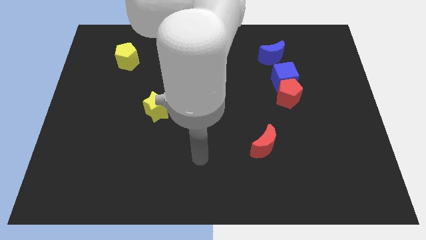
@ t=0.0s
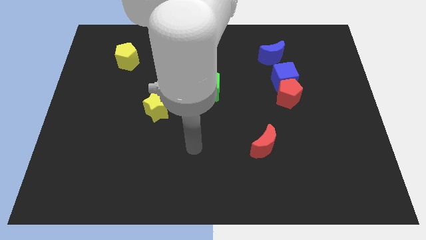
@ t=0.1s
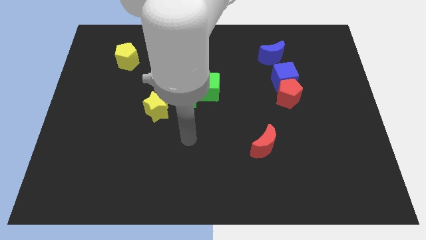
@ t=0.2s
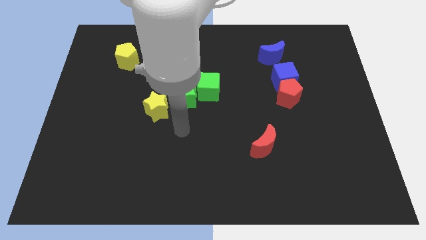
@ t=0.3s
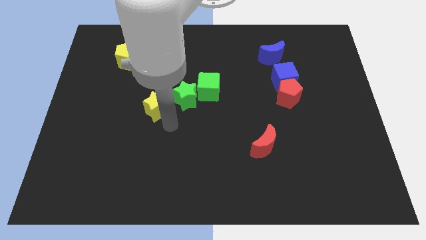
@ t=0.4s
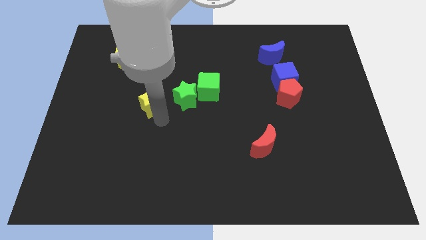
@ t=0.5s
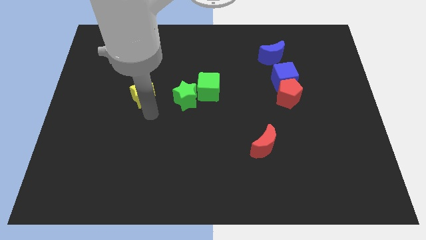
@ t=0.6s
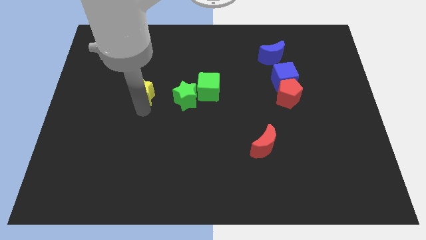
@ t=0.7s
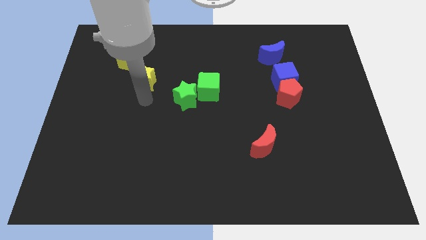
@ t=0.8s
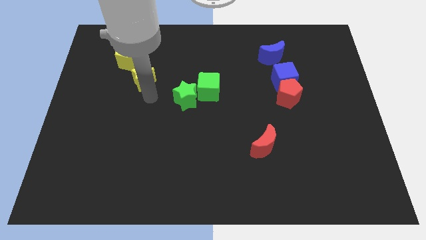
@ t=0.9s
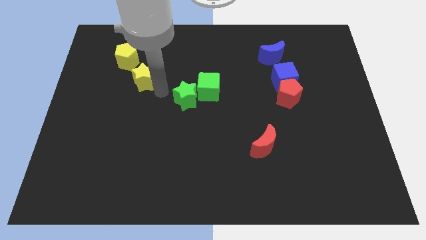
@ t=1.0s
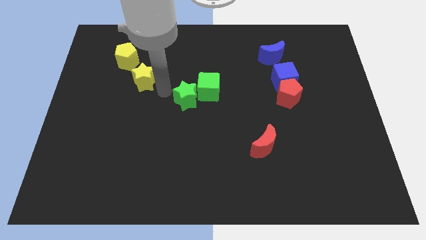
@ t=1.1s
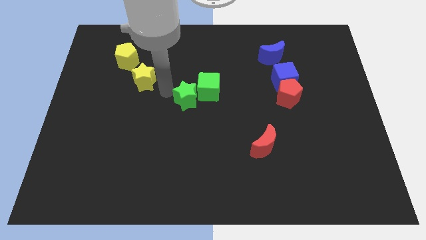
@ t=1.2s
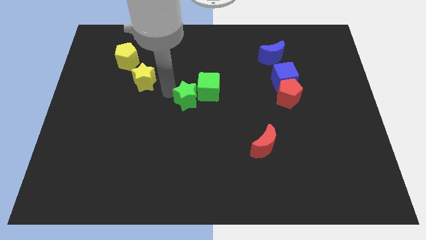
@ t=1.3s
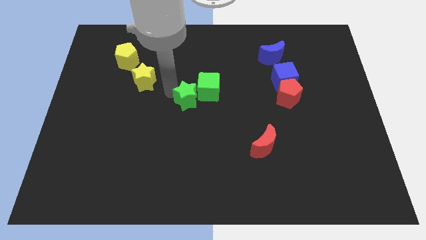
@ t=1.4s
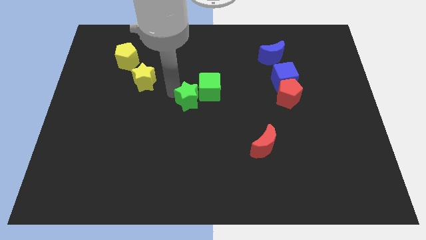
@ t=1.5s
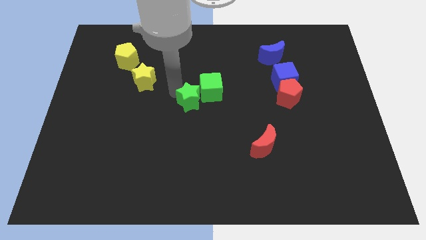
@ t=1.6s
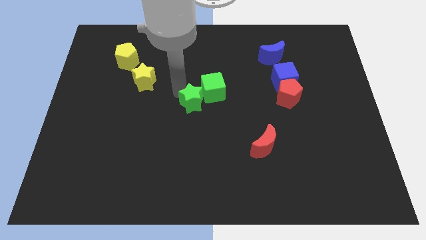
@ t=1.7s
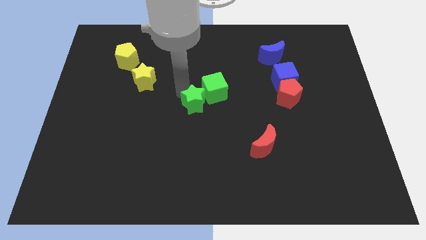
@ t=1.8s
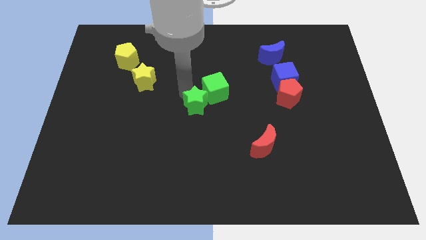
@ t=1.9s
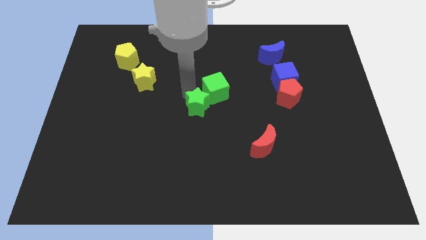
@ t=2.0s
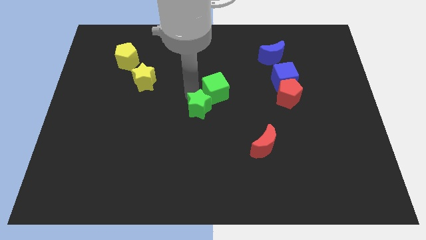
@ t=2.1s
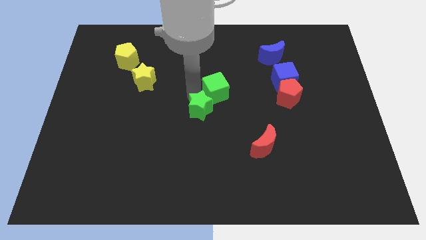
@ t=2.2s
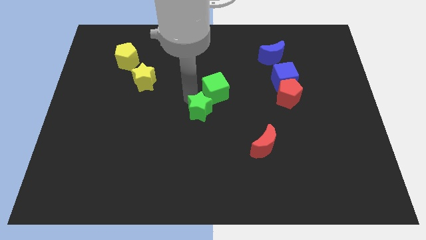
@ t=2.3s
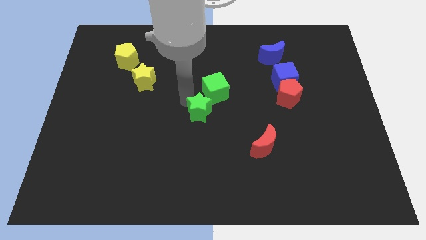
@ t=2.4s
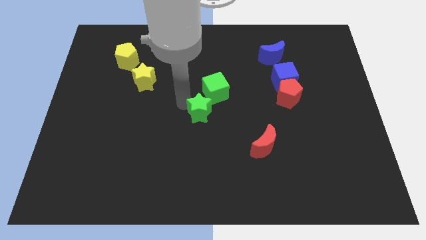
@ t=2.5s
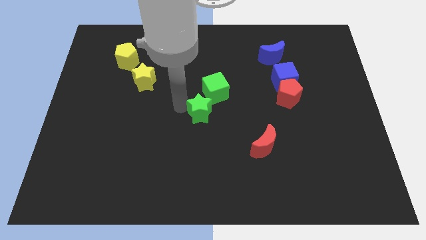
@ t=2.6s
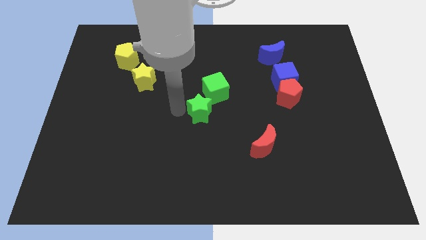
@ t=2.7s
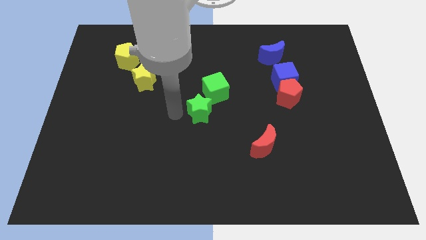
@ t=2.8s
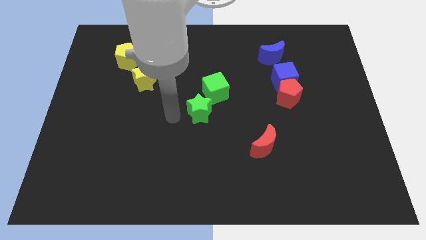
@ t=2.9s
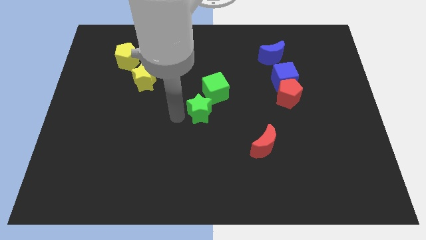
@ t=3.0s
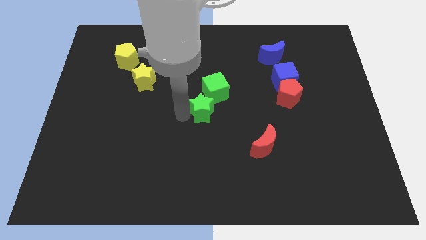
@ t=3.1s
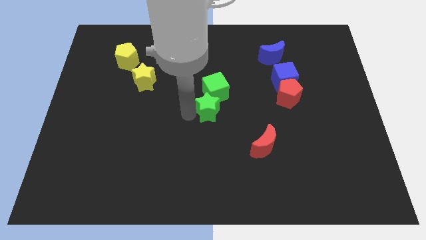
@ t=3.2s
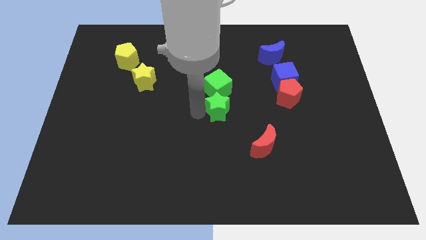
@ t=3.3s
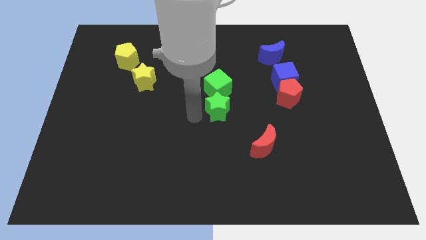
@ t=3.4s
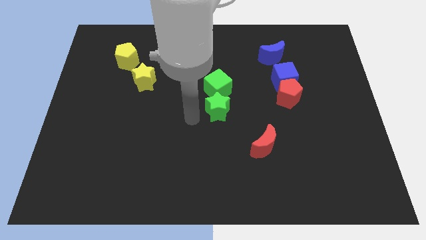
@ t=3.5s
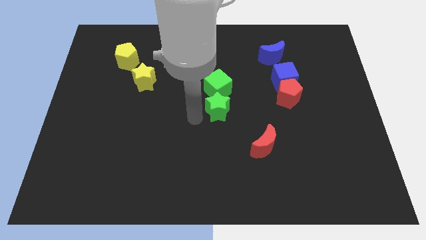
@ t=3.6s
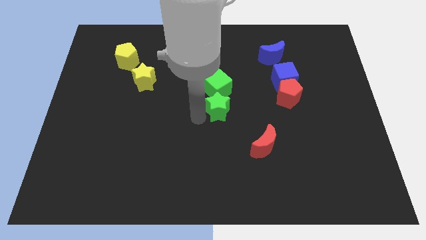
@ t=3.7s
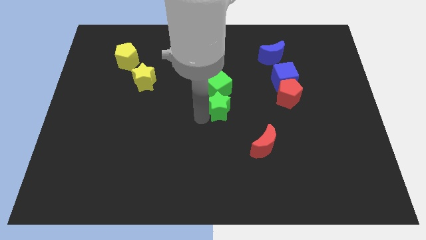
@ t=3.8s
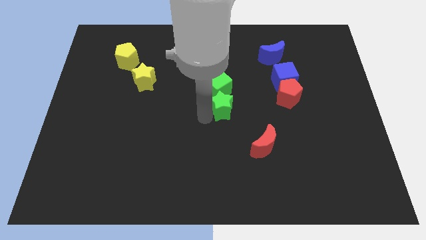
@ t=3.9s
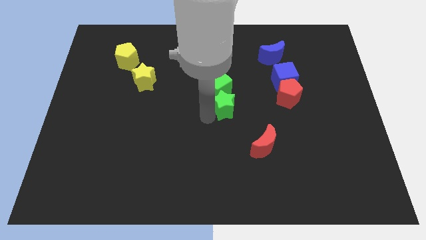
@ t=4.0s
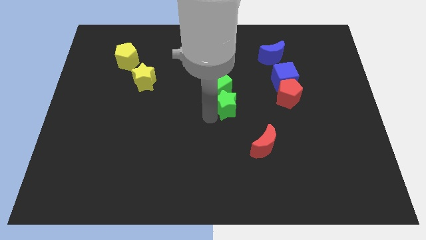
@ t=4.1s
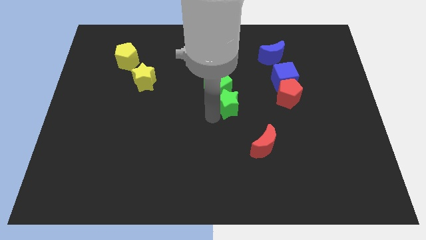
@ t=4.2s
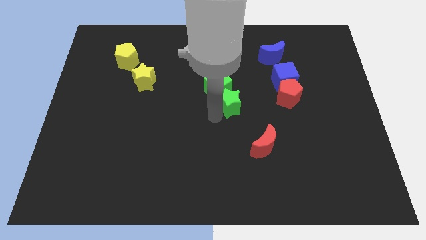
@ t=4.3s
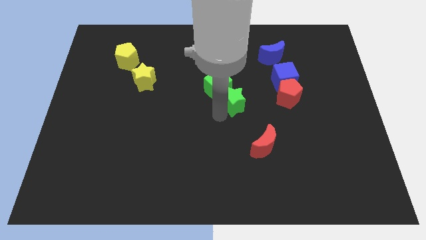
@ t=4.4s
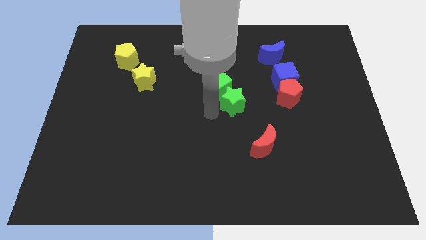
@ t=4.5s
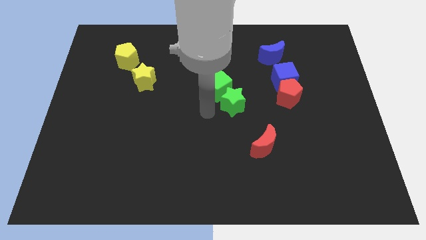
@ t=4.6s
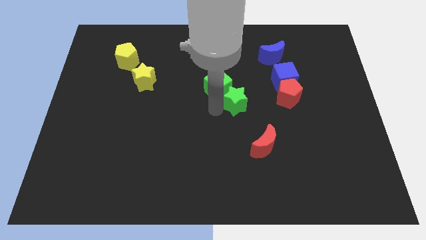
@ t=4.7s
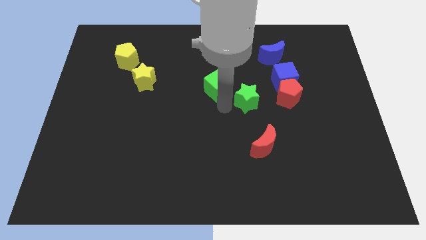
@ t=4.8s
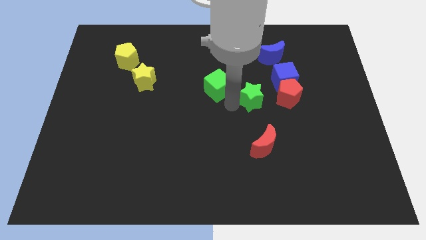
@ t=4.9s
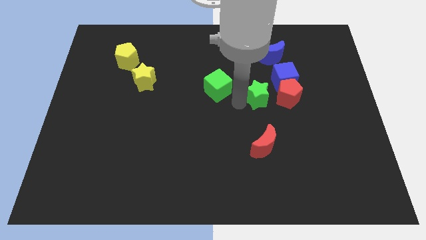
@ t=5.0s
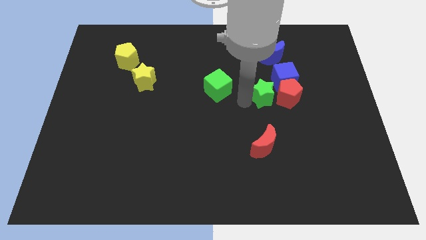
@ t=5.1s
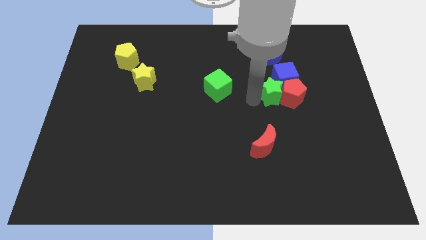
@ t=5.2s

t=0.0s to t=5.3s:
slide the green star to the blue cube

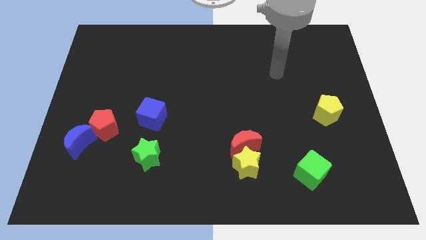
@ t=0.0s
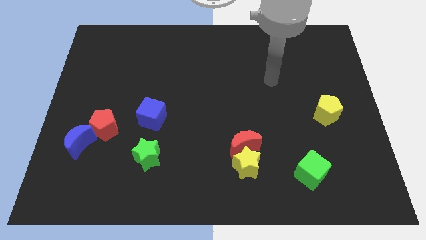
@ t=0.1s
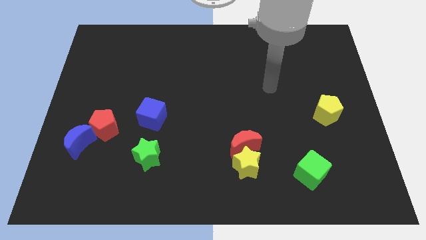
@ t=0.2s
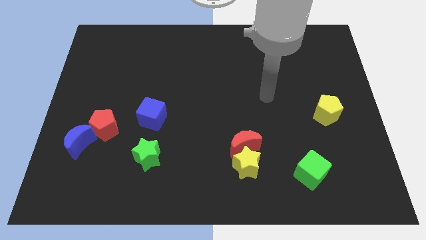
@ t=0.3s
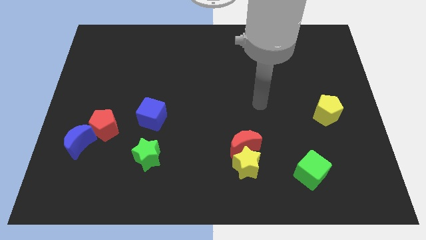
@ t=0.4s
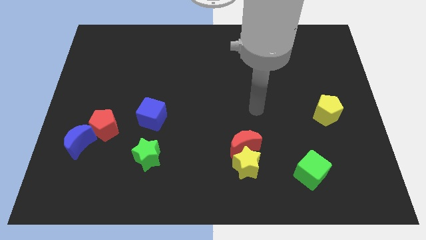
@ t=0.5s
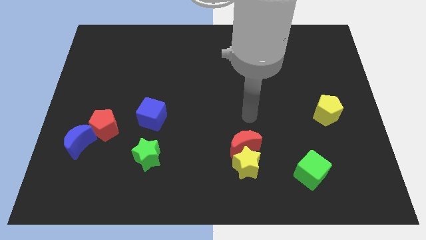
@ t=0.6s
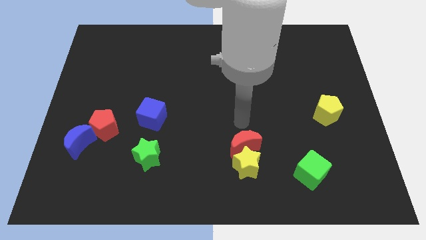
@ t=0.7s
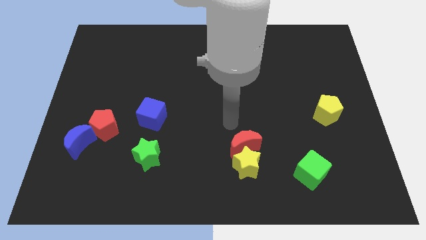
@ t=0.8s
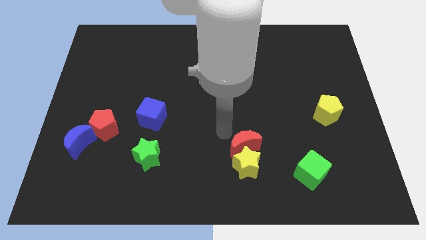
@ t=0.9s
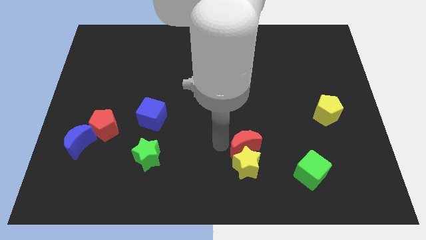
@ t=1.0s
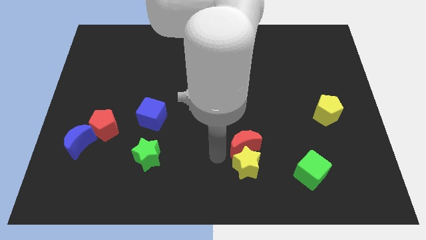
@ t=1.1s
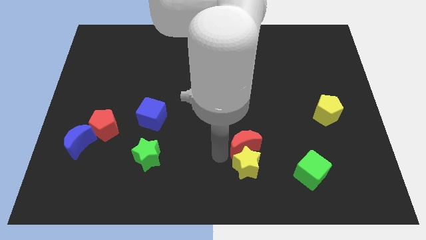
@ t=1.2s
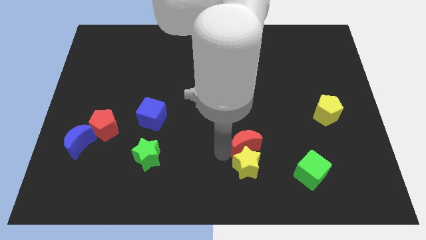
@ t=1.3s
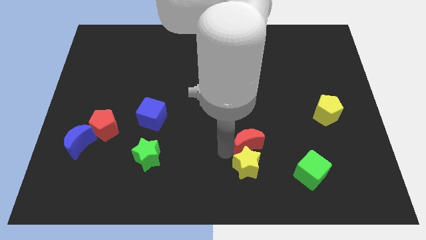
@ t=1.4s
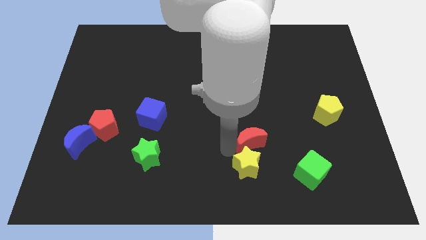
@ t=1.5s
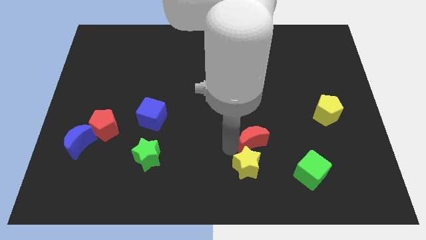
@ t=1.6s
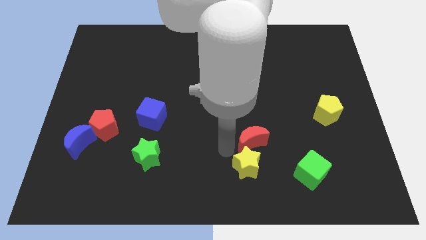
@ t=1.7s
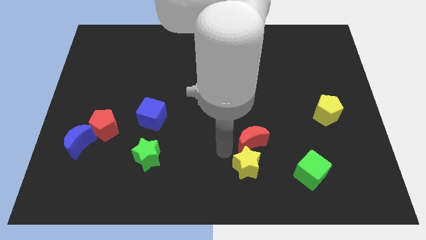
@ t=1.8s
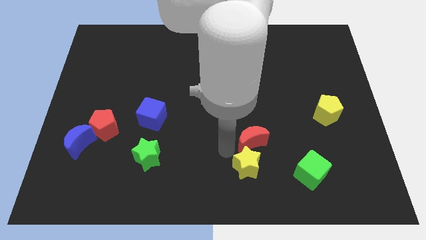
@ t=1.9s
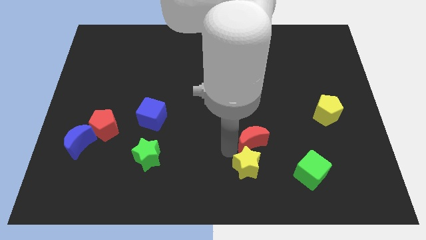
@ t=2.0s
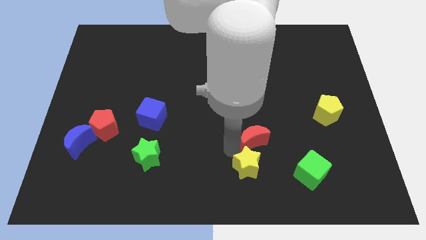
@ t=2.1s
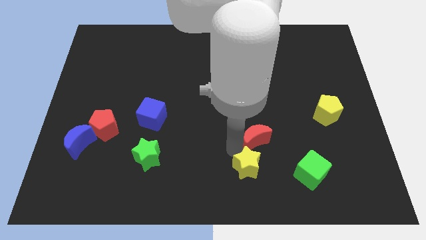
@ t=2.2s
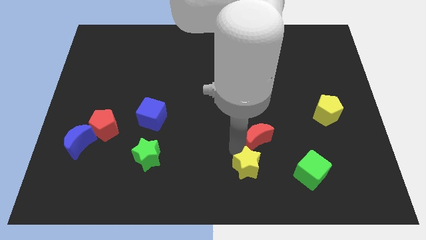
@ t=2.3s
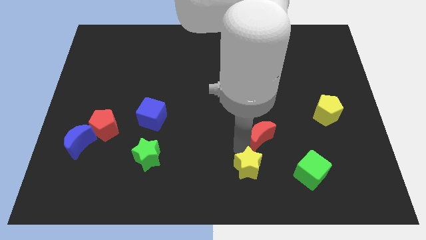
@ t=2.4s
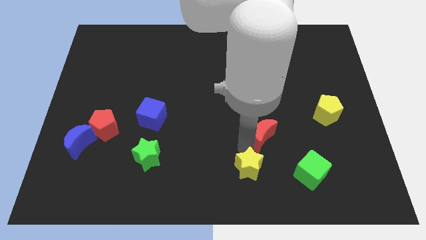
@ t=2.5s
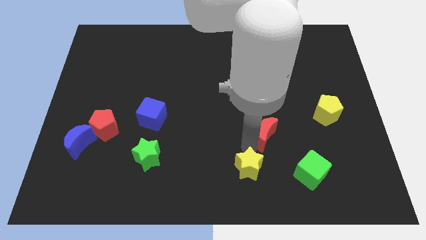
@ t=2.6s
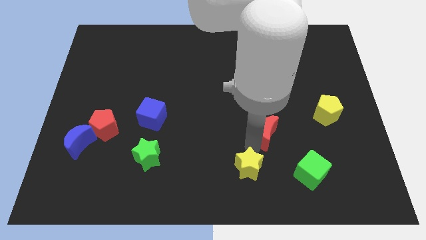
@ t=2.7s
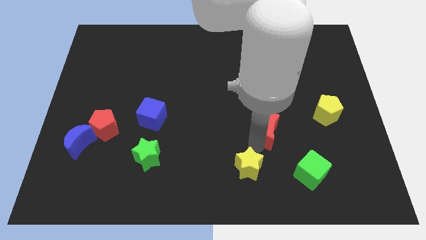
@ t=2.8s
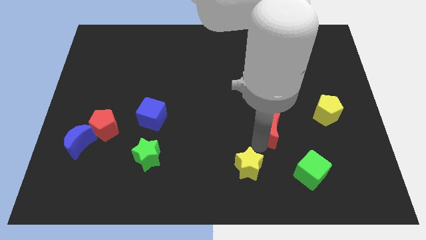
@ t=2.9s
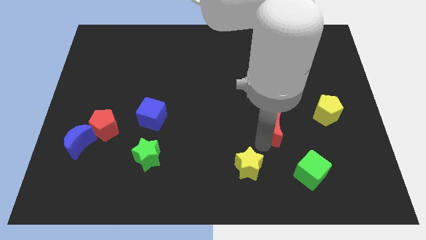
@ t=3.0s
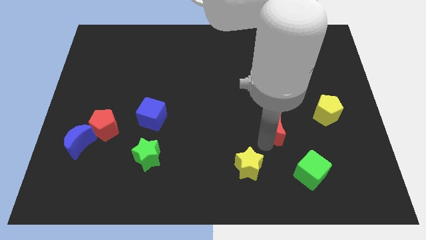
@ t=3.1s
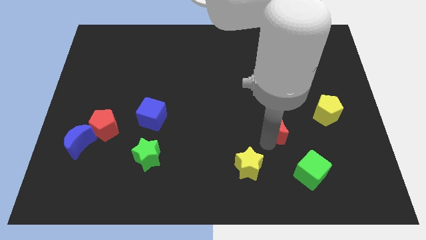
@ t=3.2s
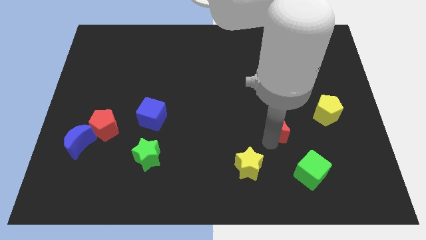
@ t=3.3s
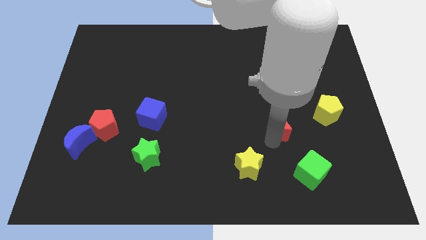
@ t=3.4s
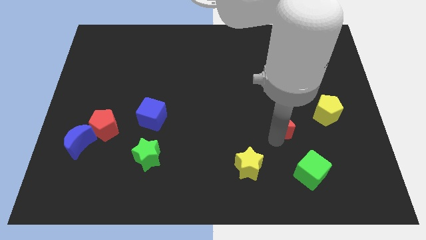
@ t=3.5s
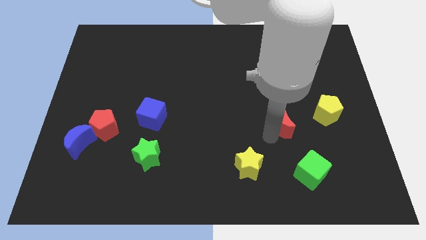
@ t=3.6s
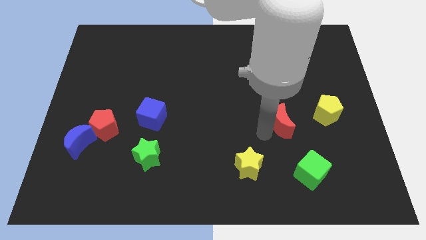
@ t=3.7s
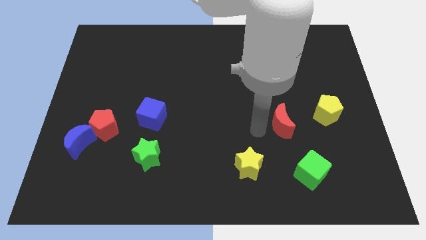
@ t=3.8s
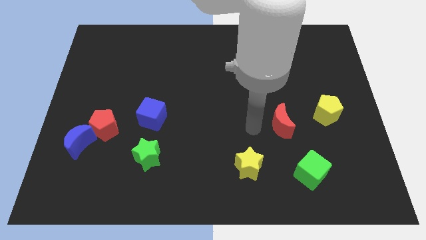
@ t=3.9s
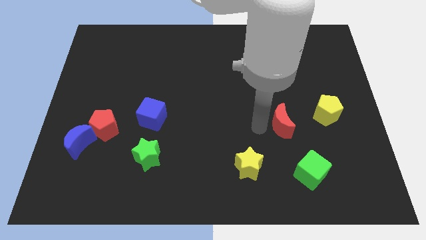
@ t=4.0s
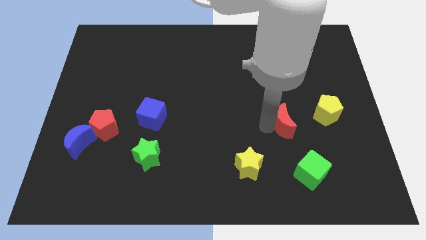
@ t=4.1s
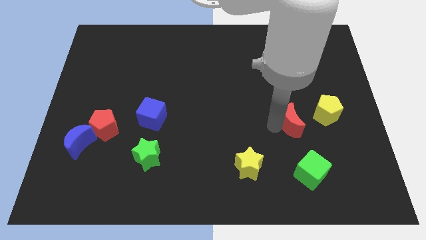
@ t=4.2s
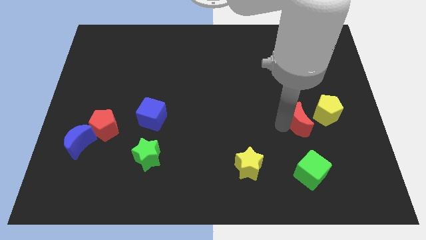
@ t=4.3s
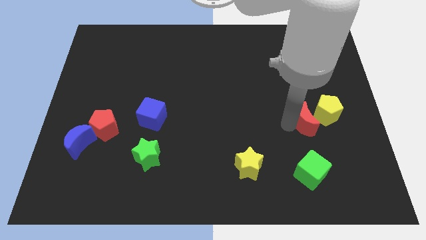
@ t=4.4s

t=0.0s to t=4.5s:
slide the red moon towards the yellow pentagon
